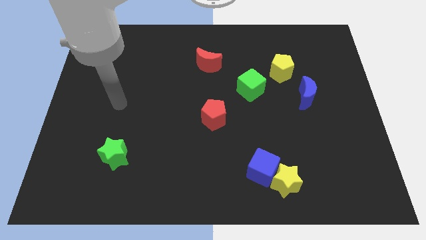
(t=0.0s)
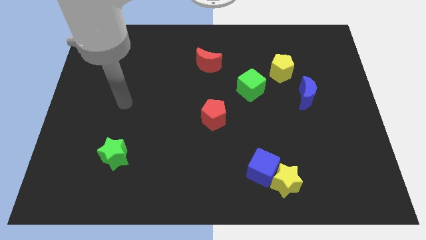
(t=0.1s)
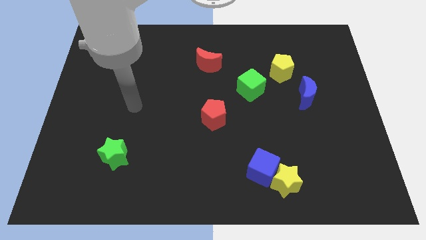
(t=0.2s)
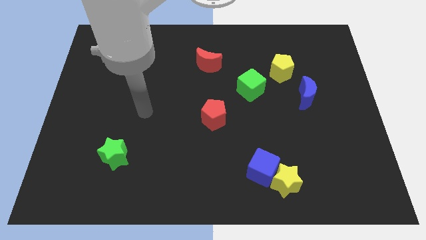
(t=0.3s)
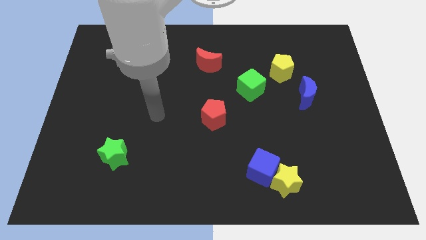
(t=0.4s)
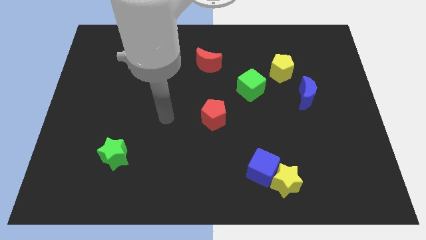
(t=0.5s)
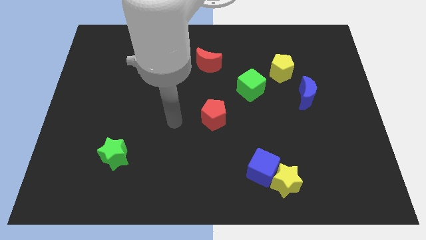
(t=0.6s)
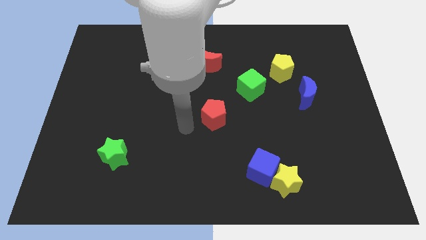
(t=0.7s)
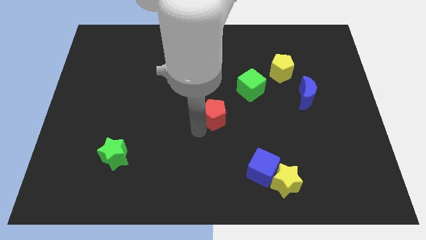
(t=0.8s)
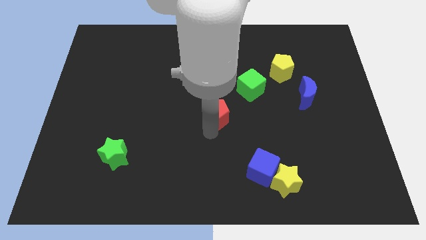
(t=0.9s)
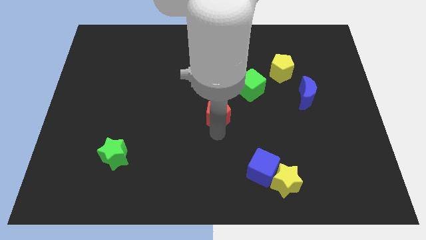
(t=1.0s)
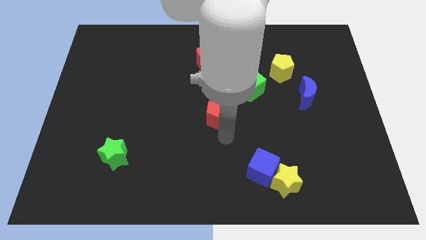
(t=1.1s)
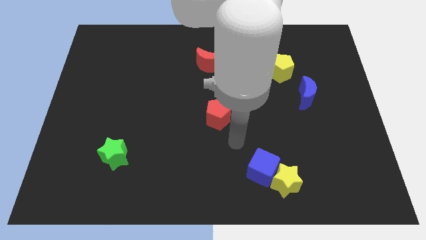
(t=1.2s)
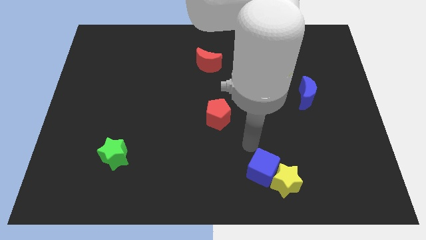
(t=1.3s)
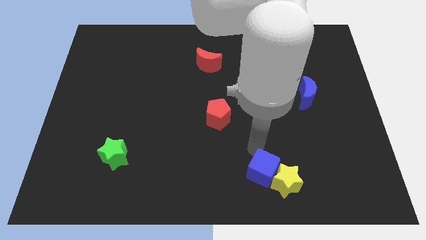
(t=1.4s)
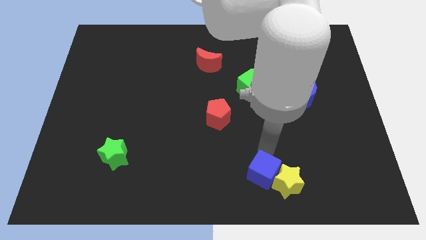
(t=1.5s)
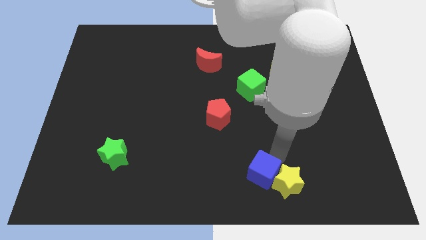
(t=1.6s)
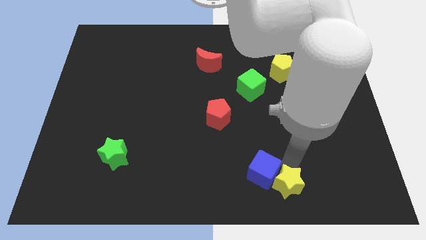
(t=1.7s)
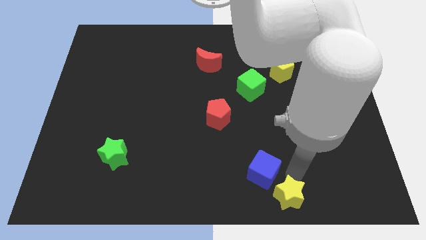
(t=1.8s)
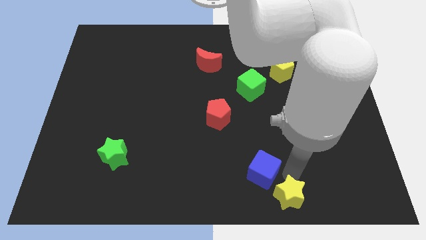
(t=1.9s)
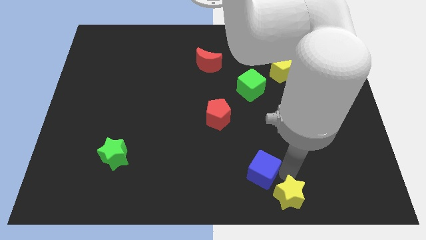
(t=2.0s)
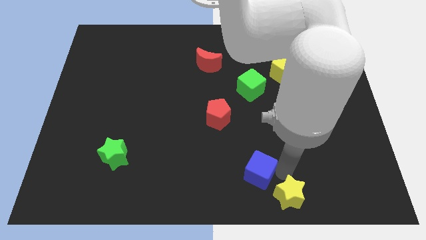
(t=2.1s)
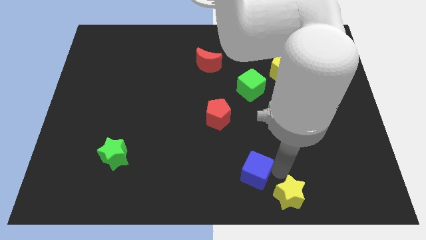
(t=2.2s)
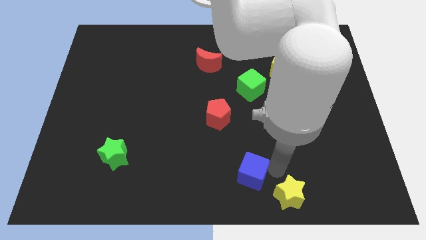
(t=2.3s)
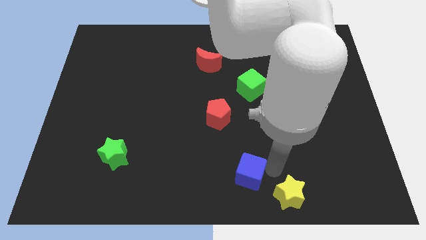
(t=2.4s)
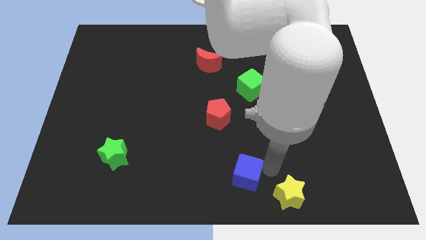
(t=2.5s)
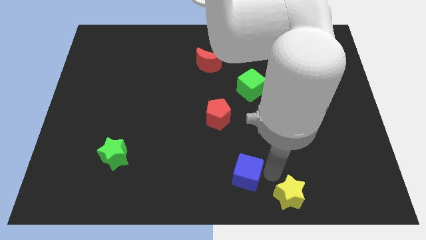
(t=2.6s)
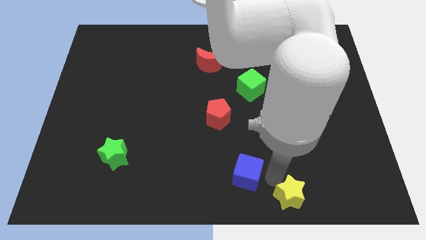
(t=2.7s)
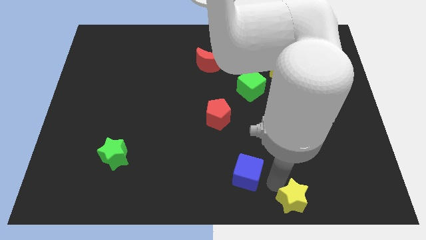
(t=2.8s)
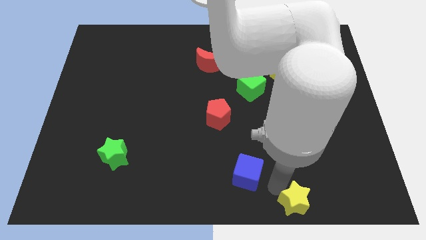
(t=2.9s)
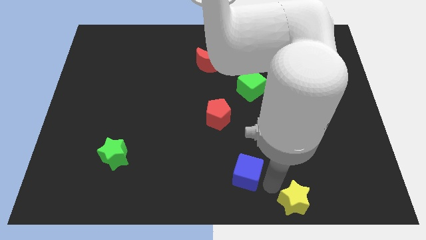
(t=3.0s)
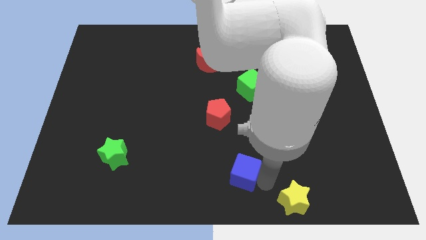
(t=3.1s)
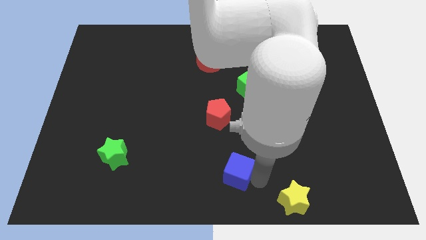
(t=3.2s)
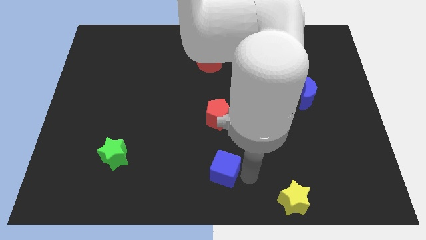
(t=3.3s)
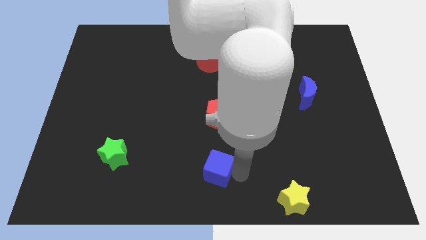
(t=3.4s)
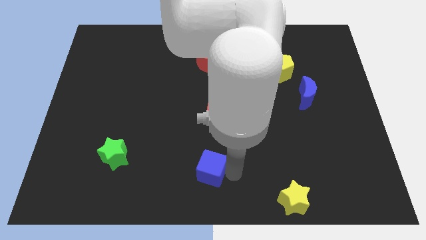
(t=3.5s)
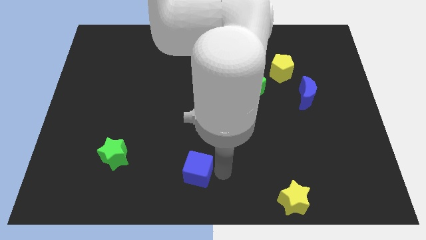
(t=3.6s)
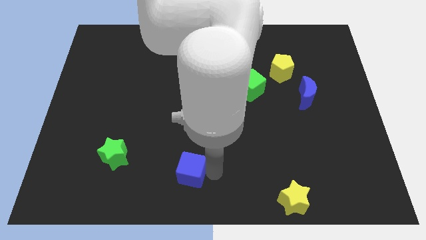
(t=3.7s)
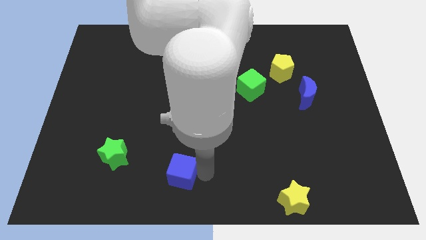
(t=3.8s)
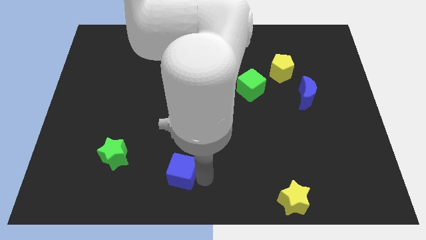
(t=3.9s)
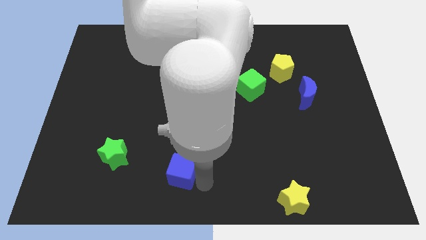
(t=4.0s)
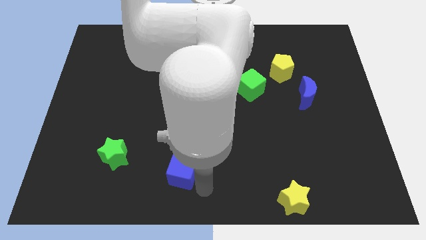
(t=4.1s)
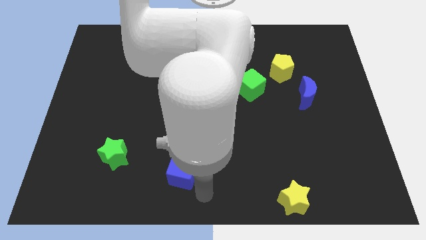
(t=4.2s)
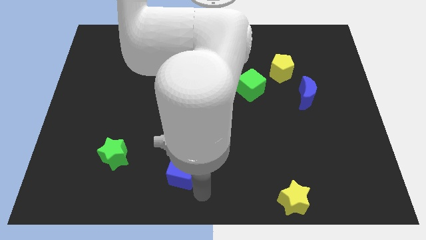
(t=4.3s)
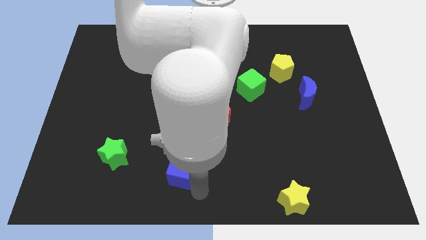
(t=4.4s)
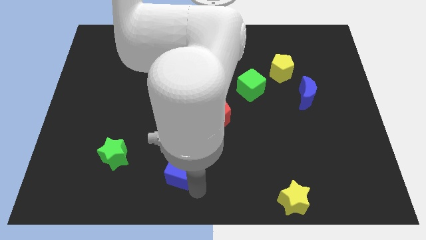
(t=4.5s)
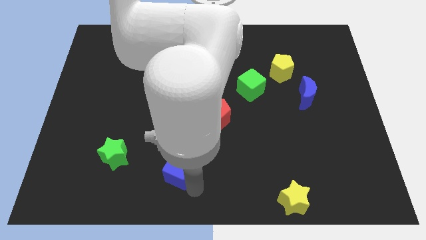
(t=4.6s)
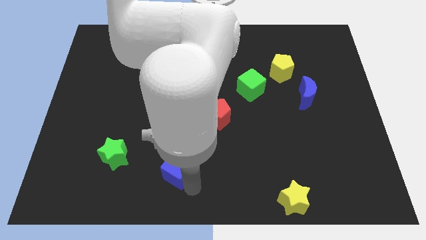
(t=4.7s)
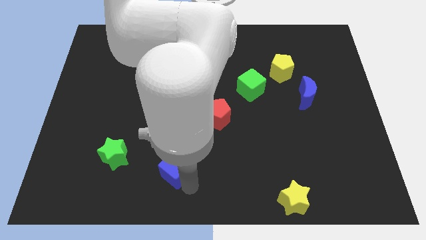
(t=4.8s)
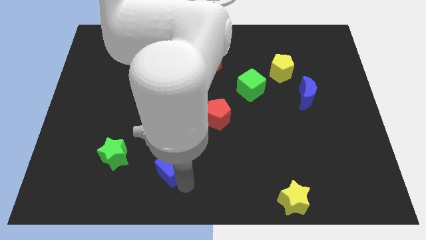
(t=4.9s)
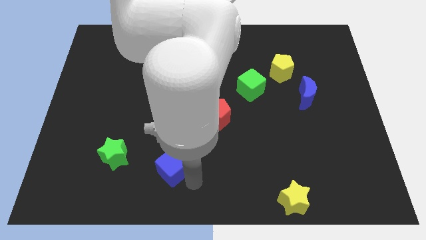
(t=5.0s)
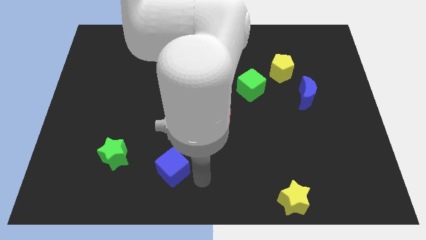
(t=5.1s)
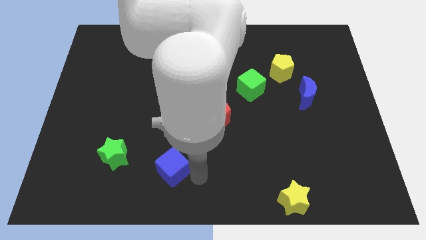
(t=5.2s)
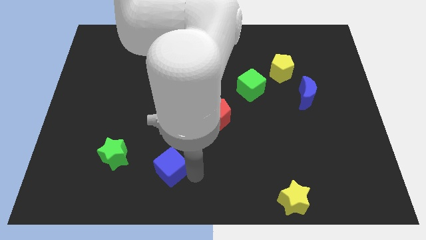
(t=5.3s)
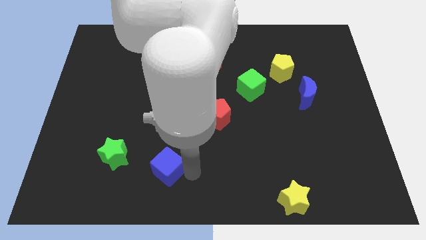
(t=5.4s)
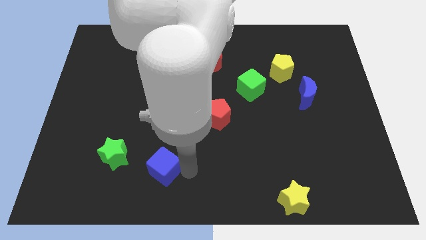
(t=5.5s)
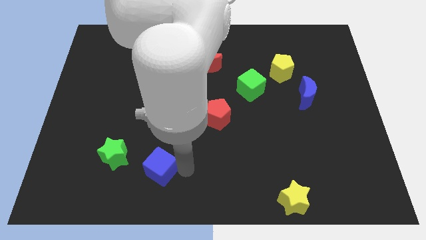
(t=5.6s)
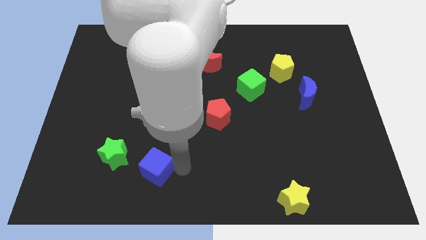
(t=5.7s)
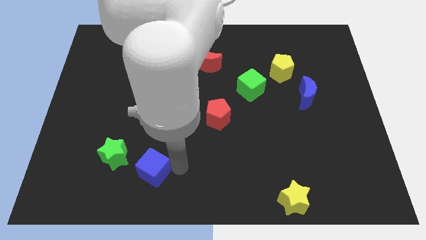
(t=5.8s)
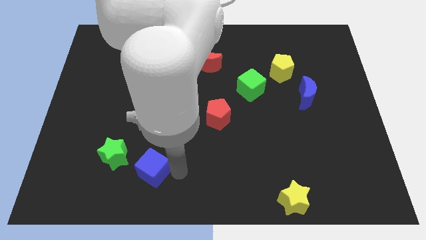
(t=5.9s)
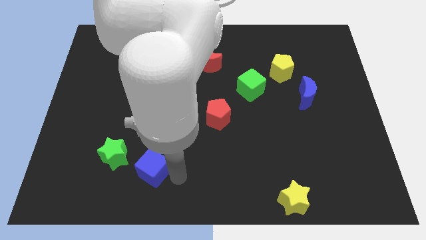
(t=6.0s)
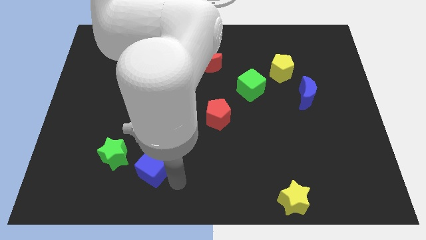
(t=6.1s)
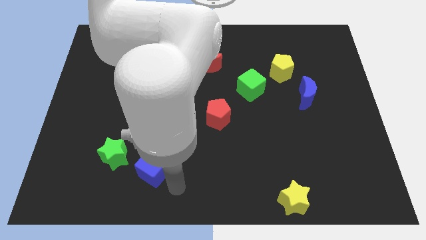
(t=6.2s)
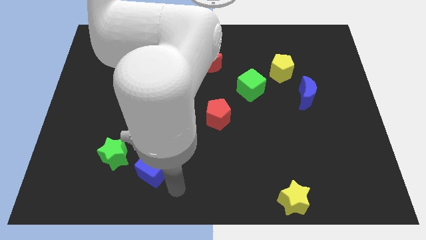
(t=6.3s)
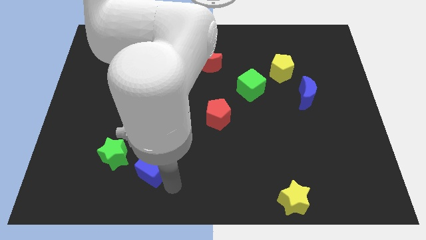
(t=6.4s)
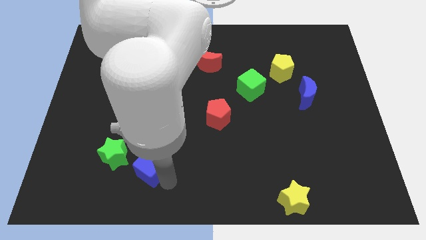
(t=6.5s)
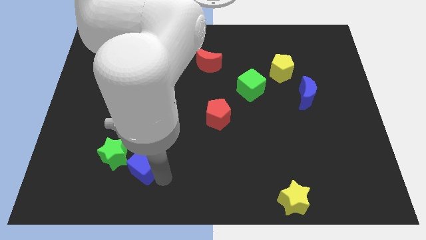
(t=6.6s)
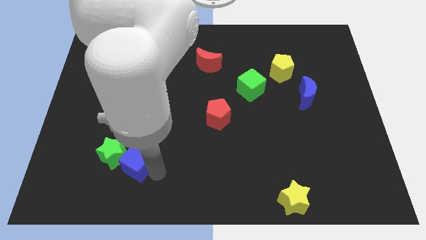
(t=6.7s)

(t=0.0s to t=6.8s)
put the blue cube close to the green star

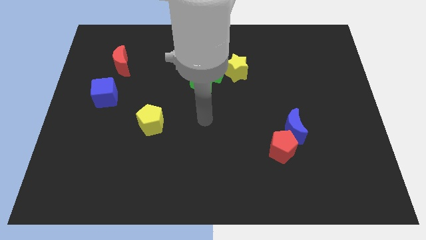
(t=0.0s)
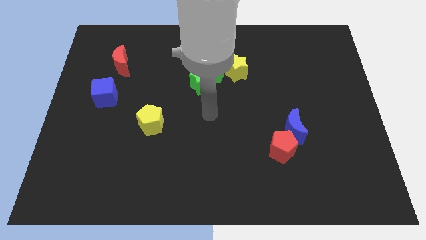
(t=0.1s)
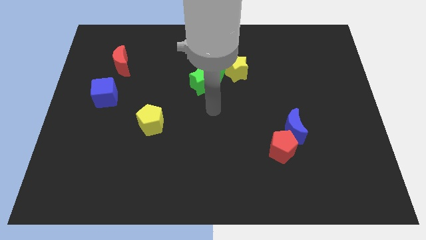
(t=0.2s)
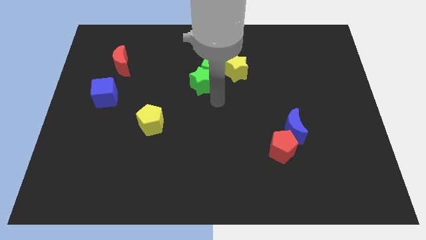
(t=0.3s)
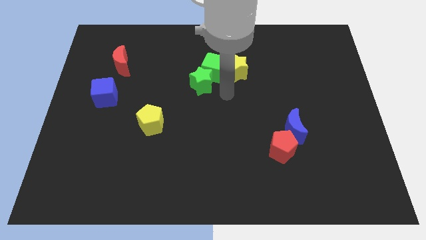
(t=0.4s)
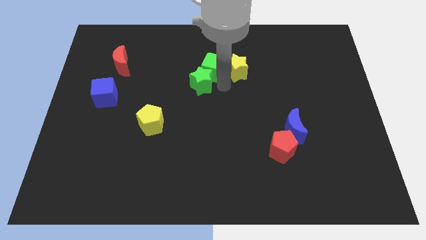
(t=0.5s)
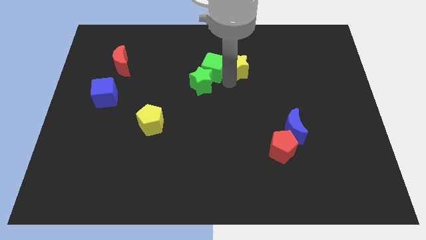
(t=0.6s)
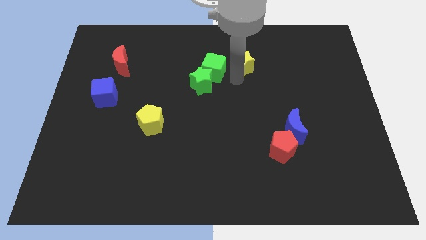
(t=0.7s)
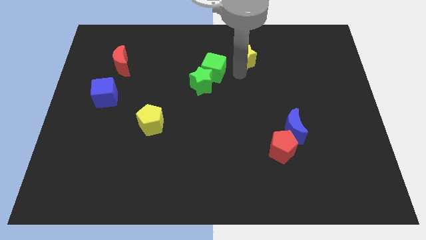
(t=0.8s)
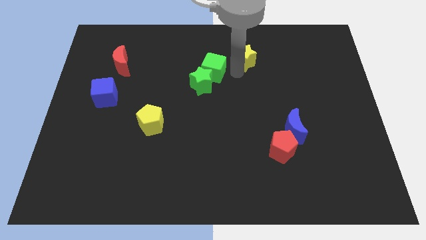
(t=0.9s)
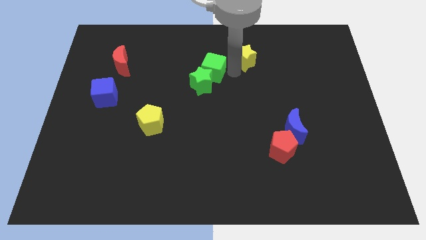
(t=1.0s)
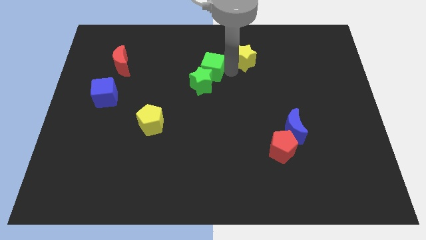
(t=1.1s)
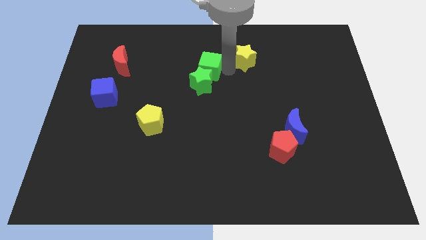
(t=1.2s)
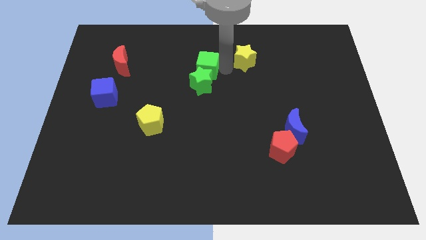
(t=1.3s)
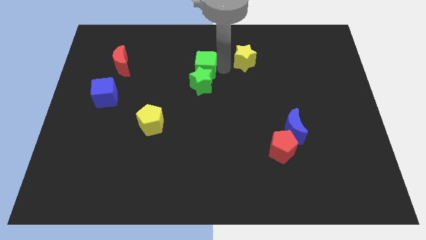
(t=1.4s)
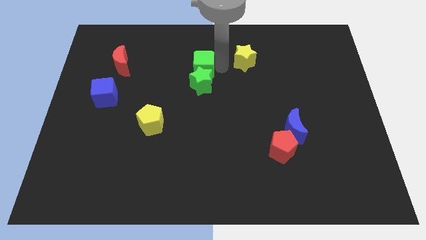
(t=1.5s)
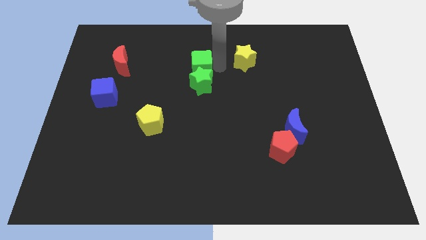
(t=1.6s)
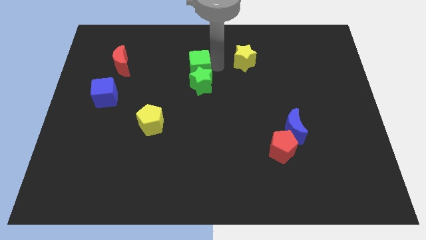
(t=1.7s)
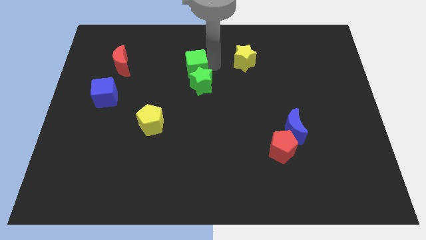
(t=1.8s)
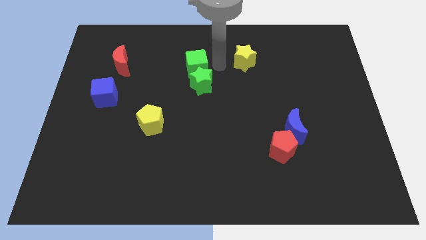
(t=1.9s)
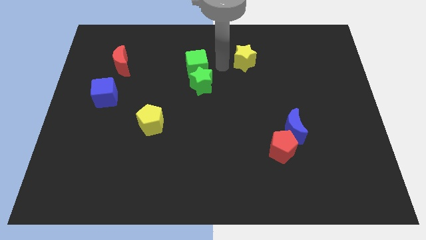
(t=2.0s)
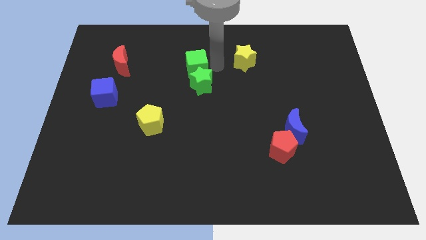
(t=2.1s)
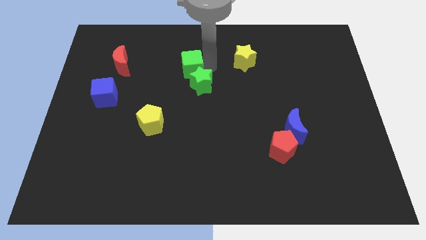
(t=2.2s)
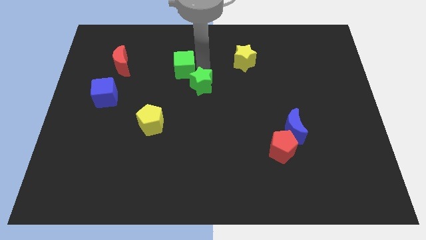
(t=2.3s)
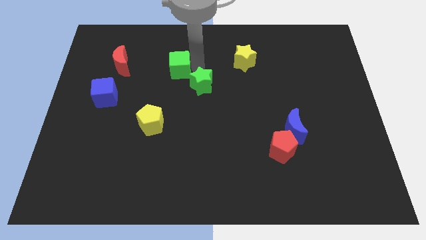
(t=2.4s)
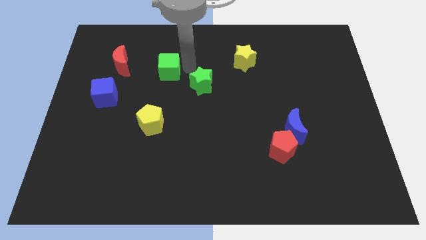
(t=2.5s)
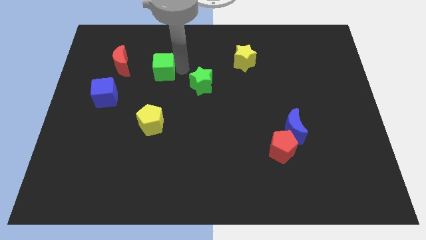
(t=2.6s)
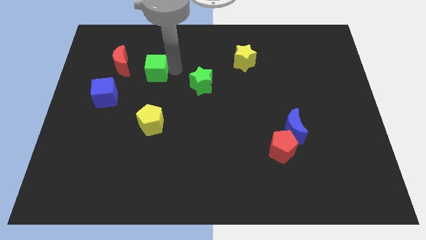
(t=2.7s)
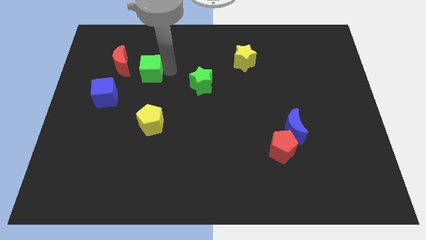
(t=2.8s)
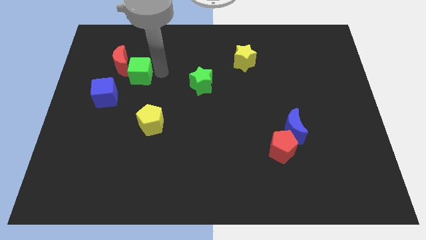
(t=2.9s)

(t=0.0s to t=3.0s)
put the green cube to the red moon
